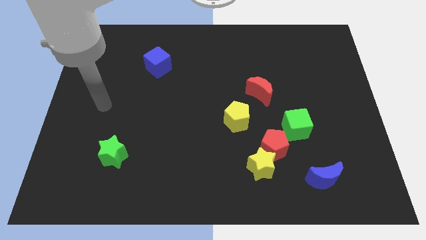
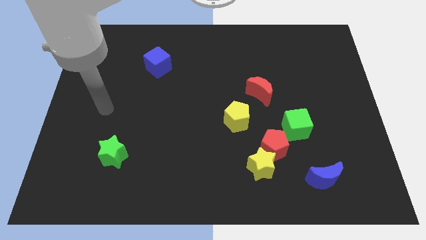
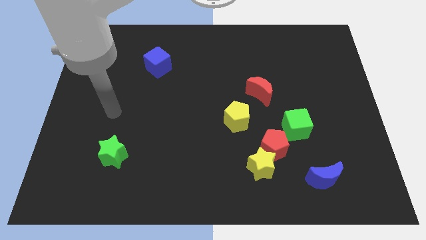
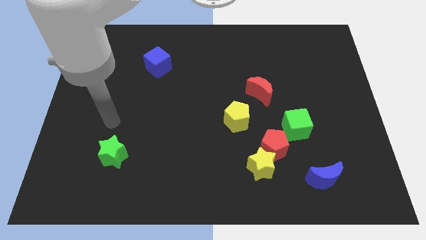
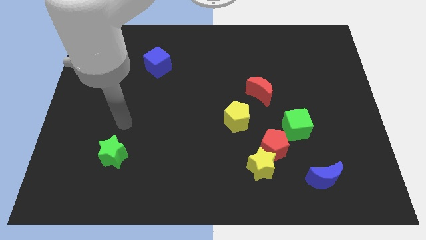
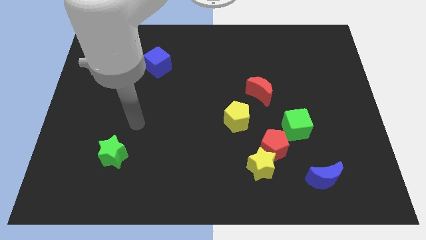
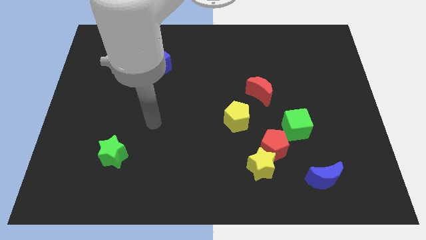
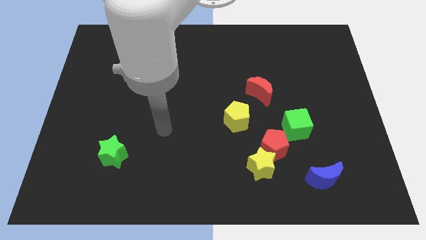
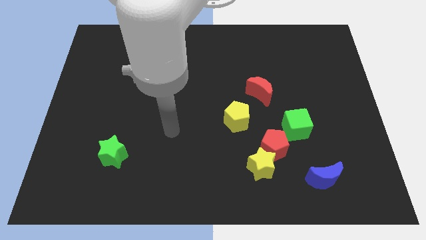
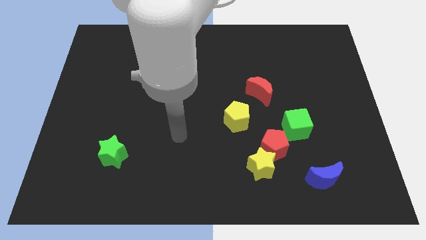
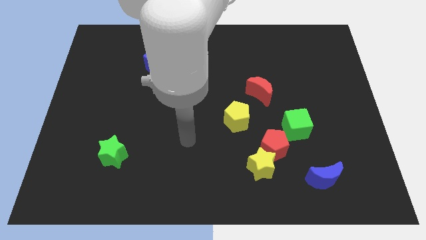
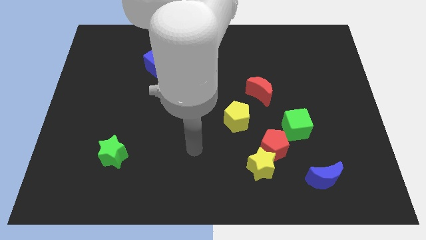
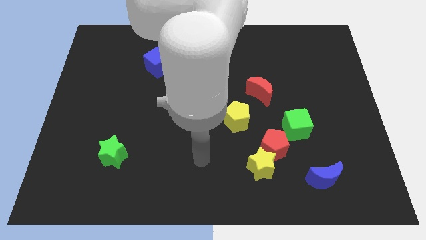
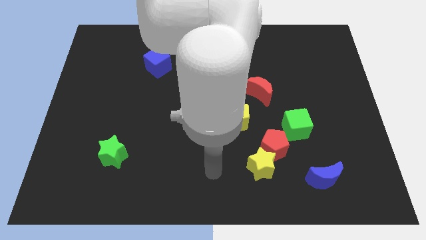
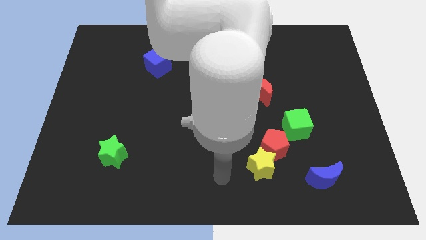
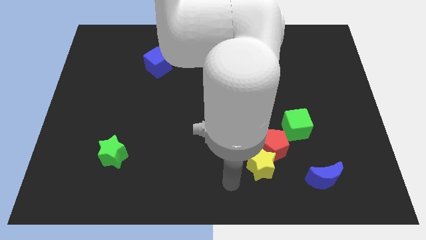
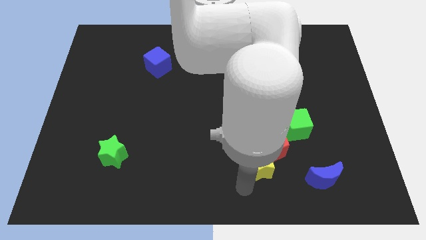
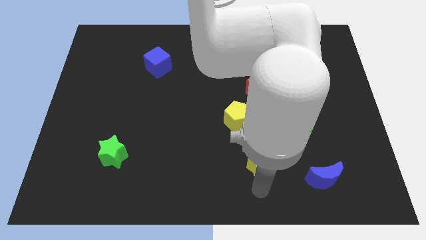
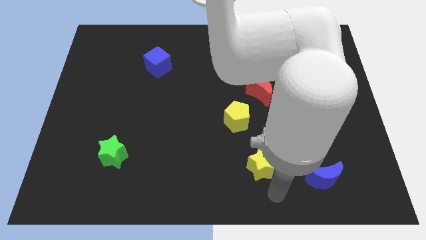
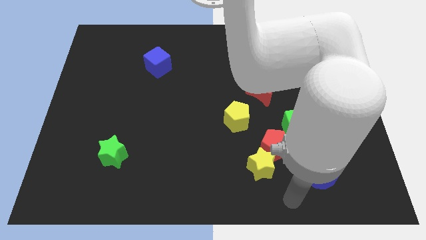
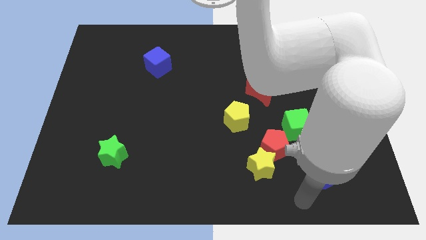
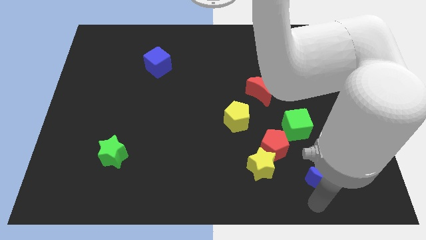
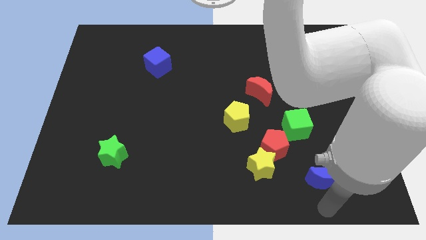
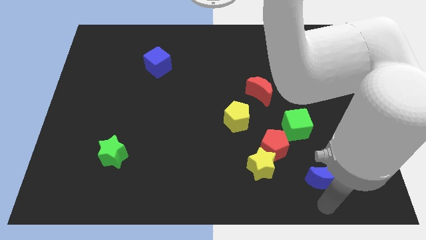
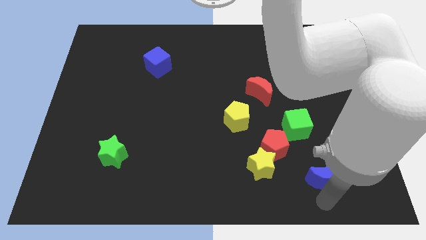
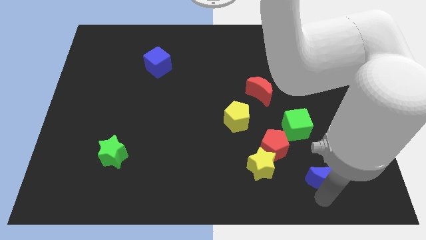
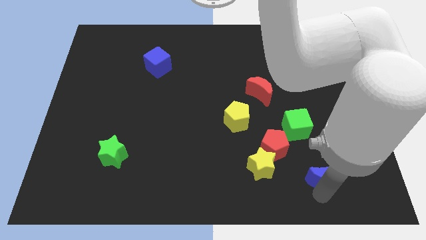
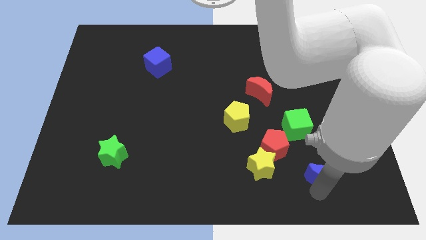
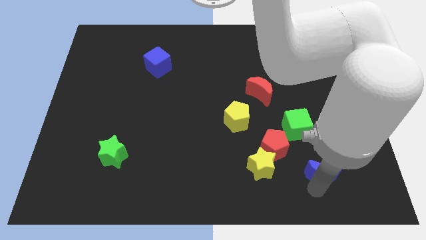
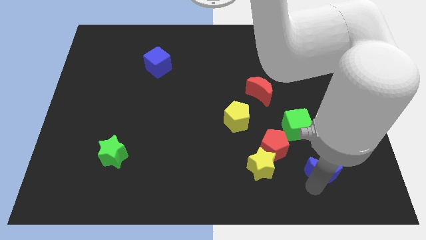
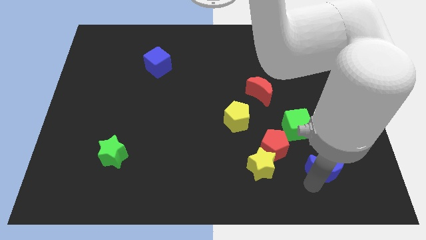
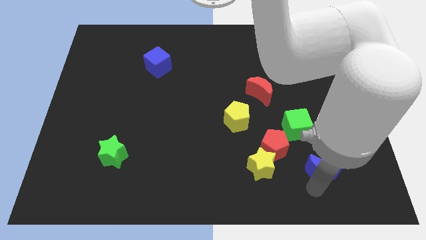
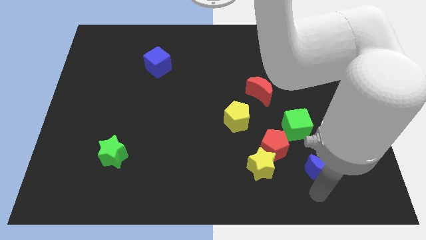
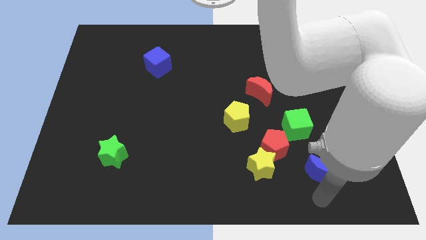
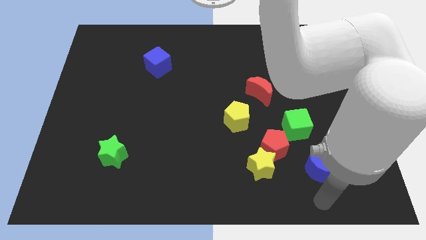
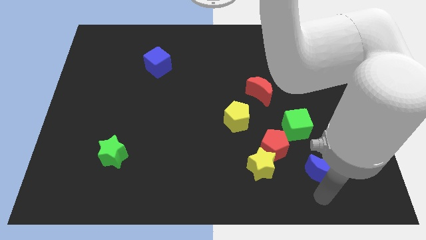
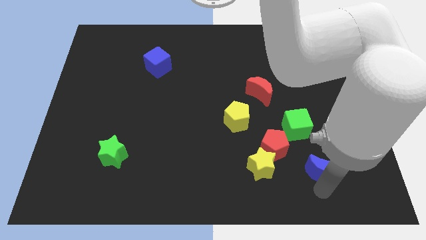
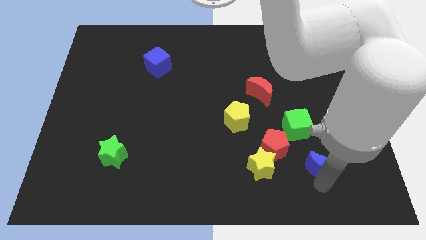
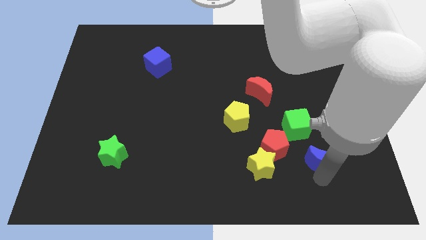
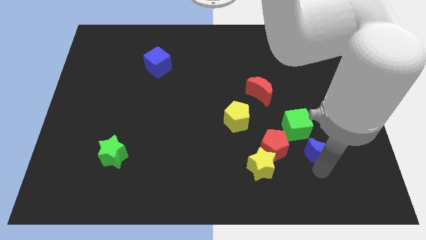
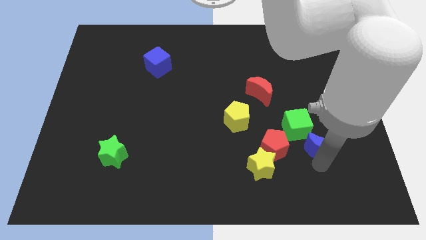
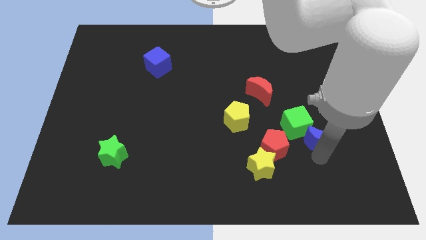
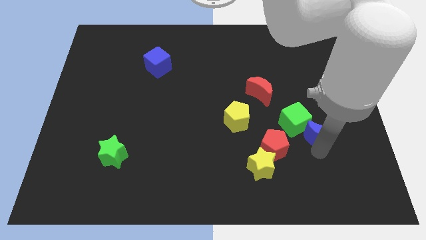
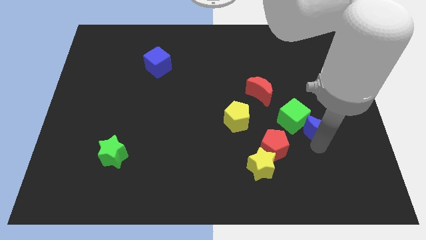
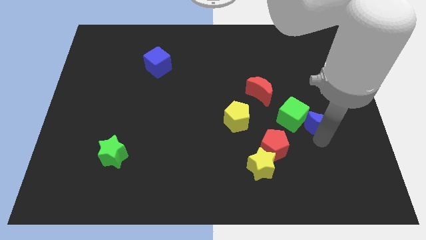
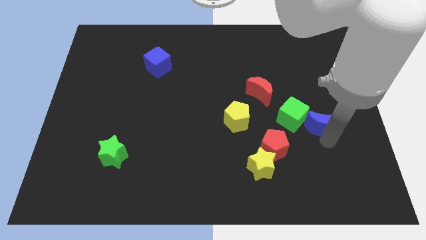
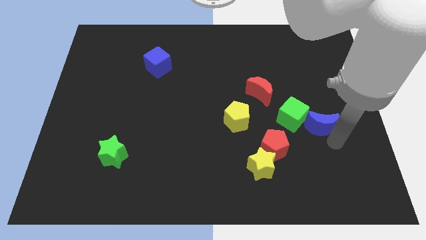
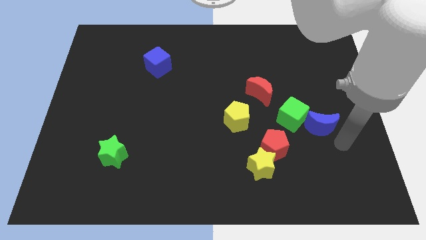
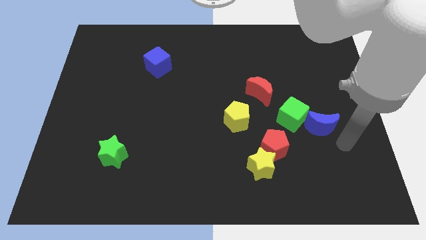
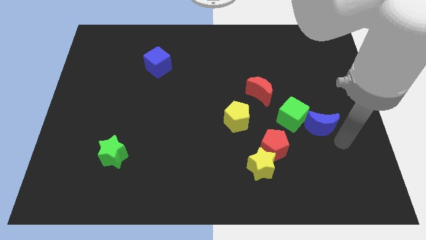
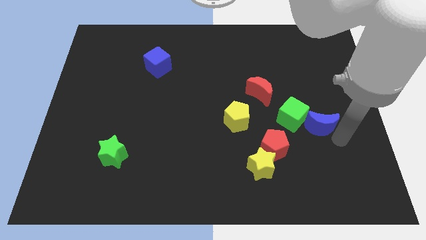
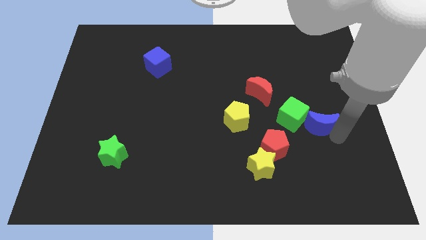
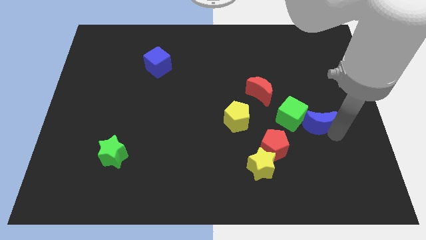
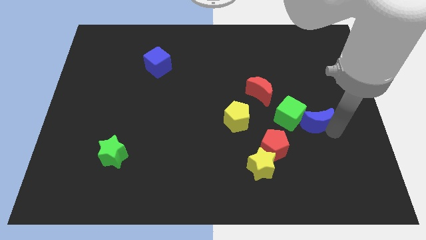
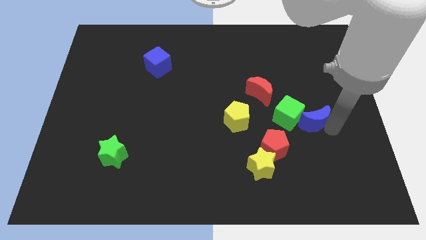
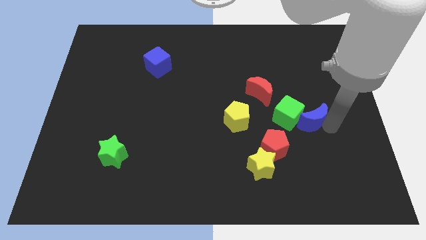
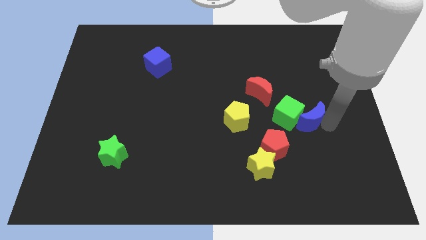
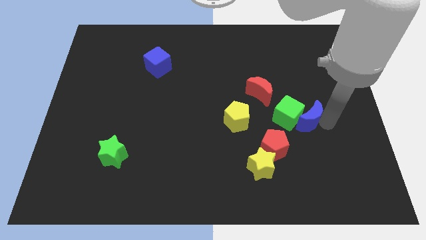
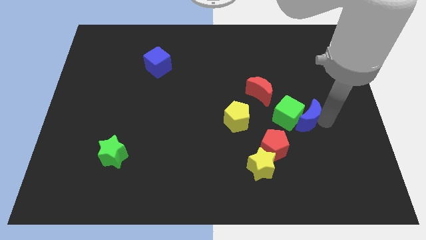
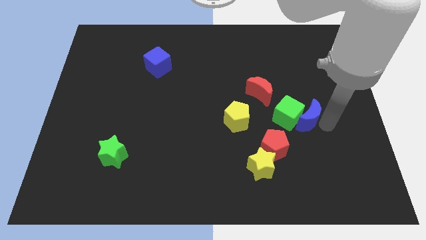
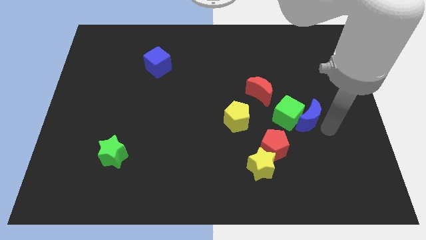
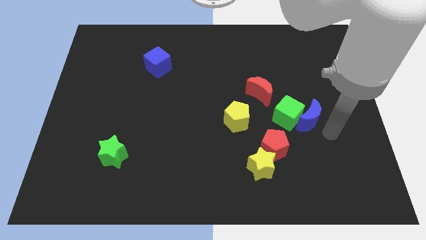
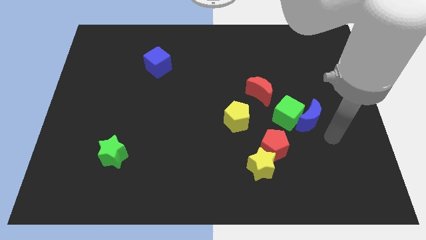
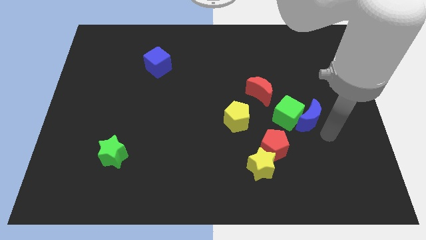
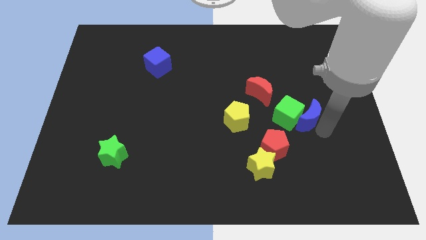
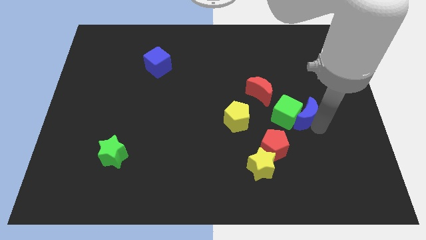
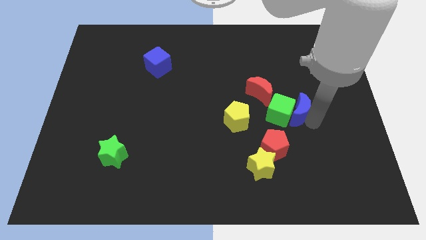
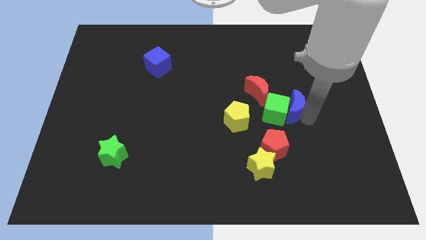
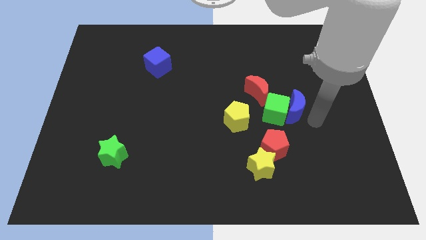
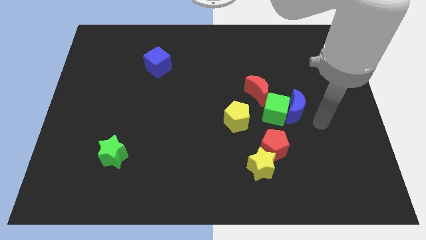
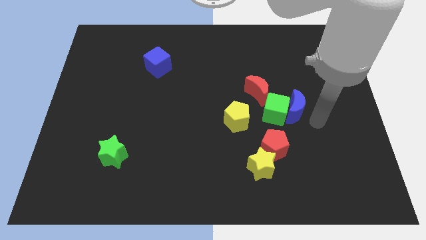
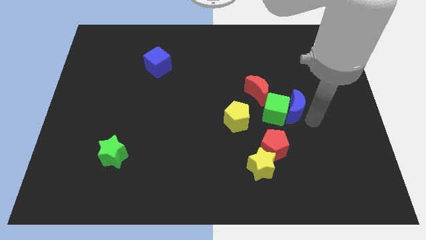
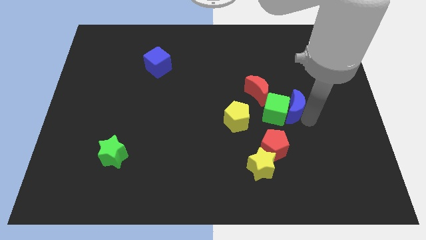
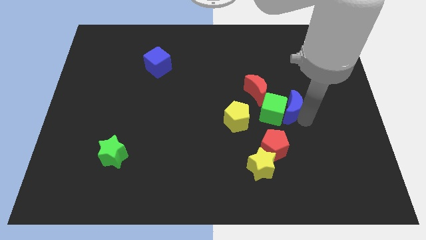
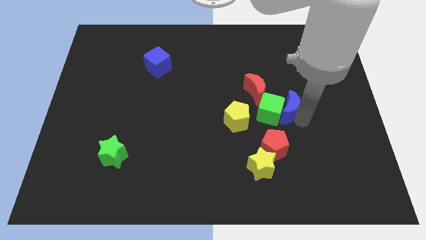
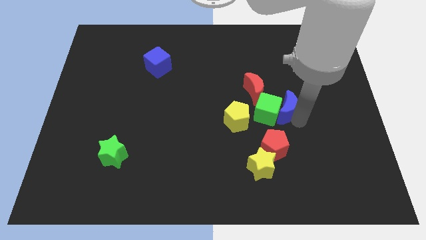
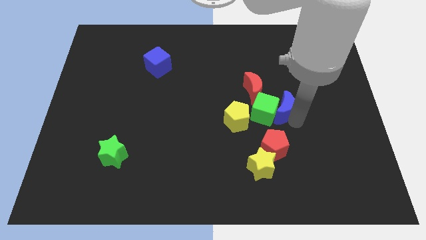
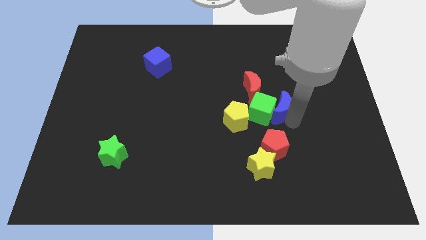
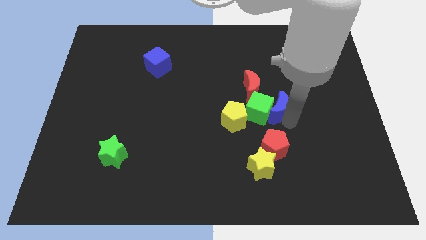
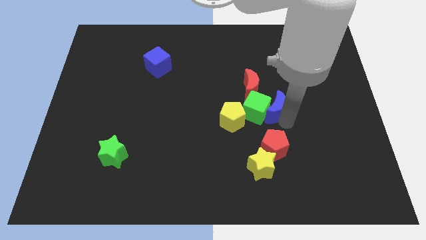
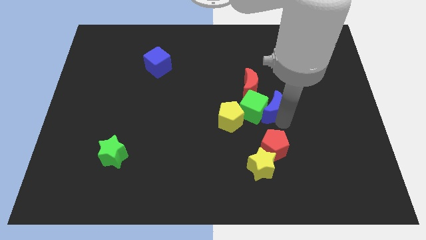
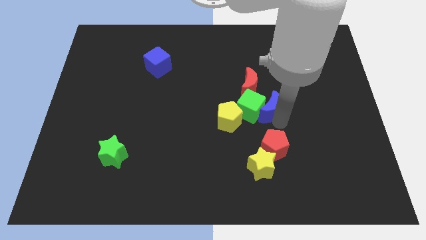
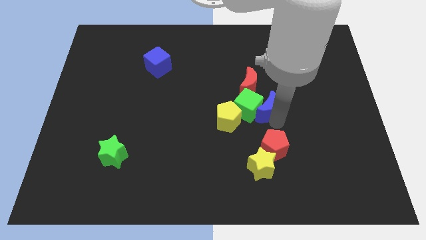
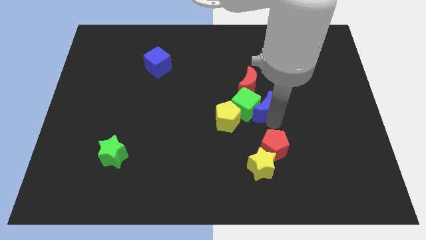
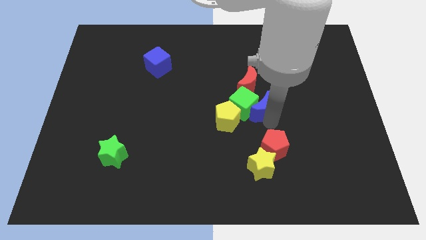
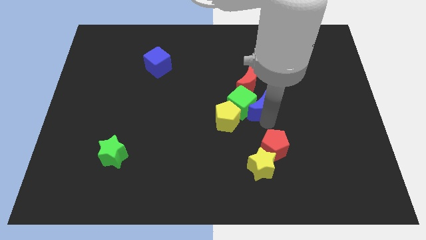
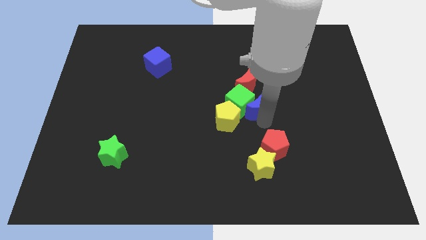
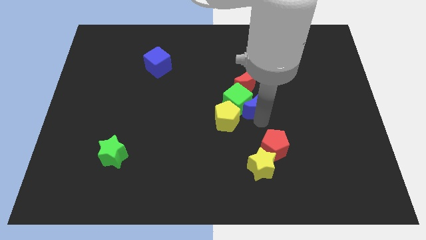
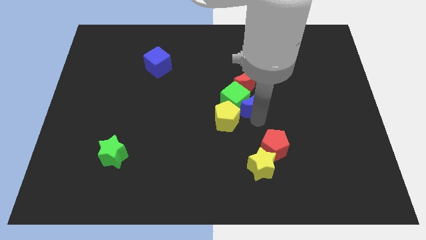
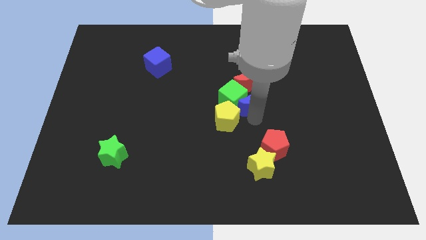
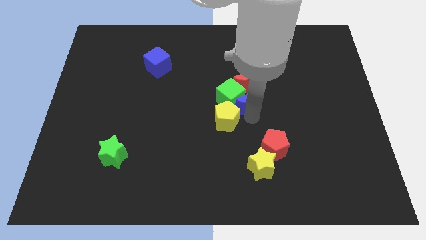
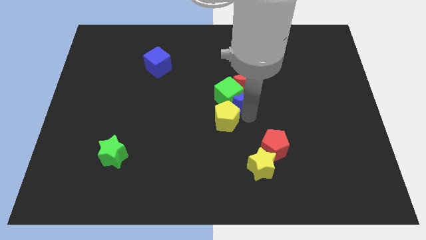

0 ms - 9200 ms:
move the blue moon next to the red moon
